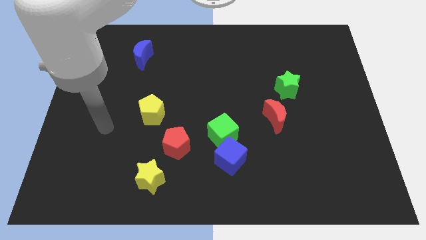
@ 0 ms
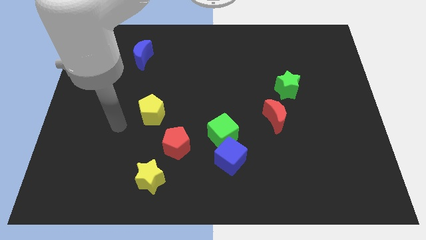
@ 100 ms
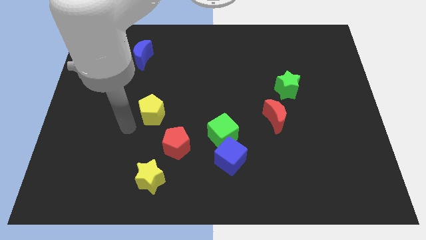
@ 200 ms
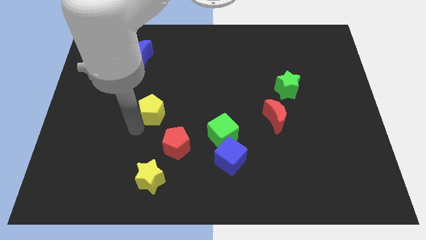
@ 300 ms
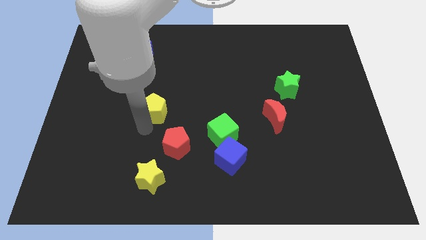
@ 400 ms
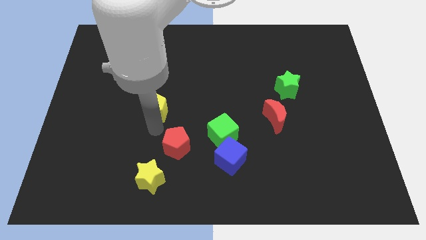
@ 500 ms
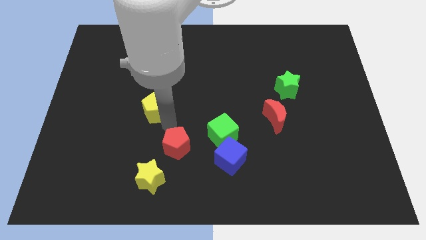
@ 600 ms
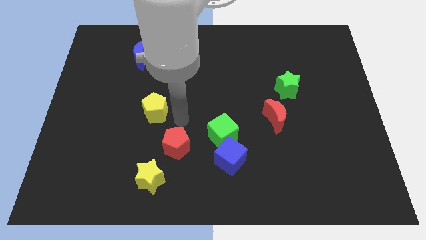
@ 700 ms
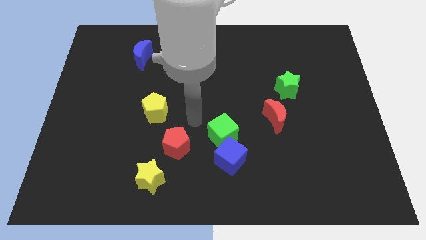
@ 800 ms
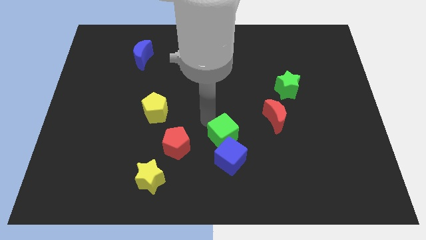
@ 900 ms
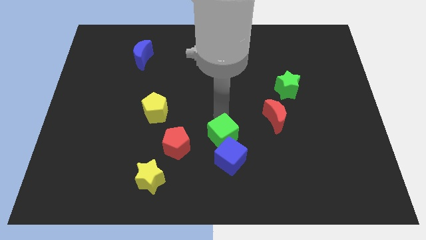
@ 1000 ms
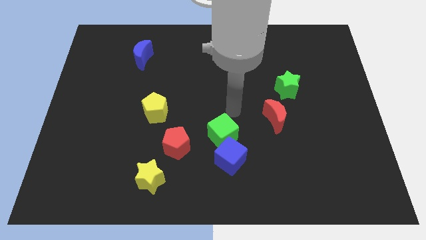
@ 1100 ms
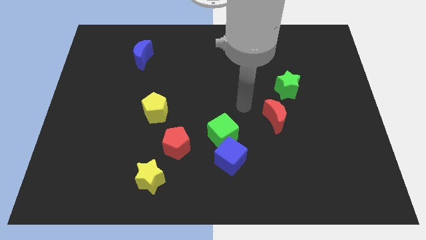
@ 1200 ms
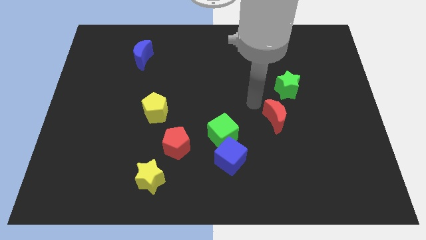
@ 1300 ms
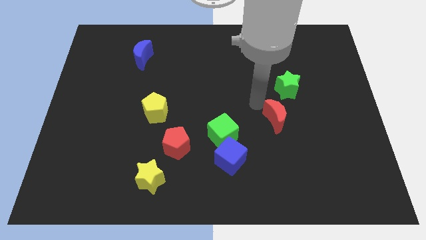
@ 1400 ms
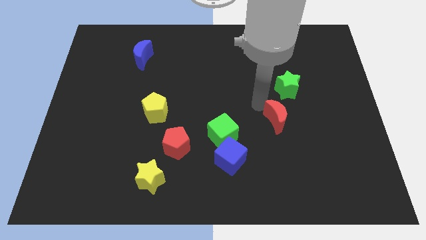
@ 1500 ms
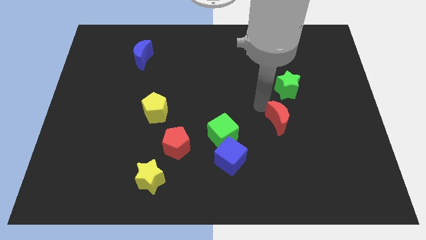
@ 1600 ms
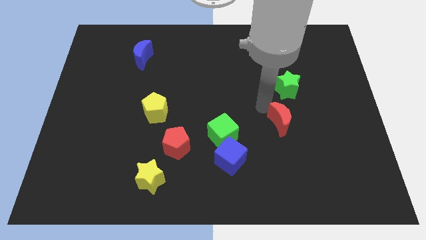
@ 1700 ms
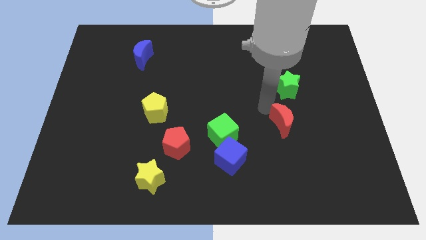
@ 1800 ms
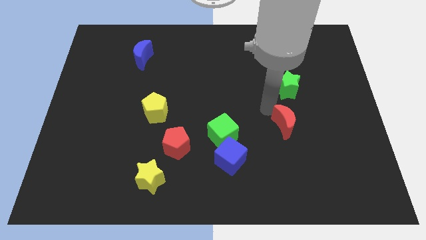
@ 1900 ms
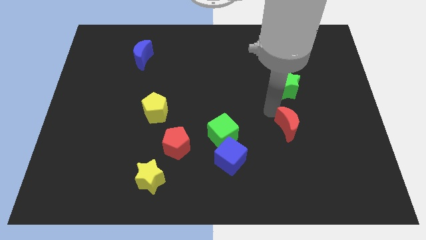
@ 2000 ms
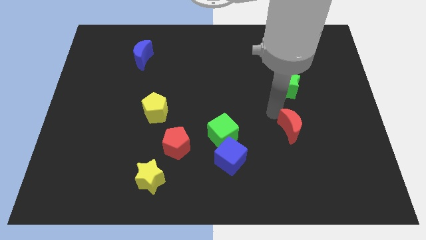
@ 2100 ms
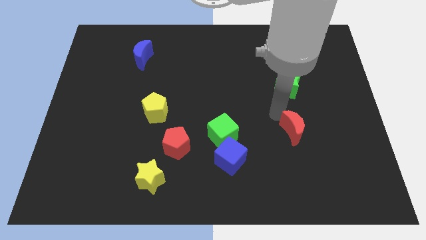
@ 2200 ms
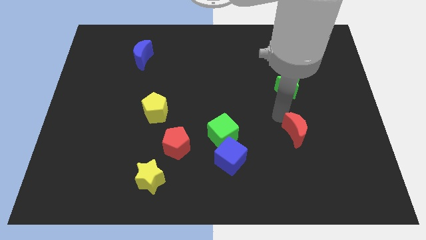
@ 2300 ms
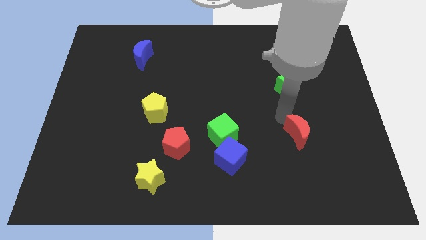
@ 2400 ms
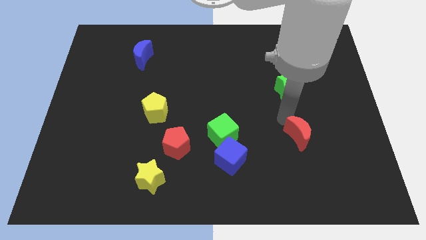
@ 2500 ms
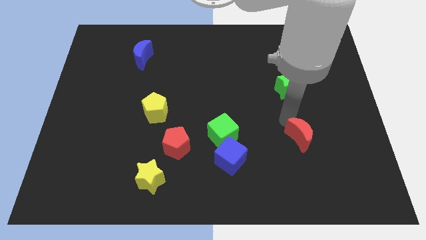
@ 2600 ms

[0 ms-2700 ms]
push the red moon downwards and then to the right slightly

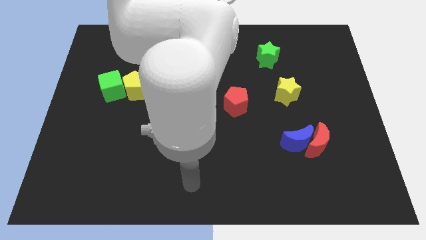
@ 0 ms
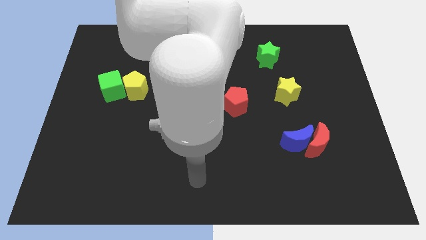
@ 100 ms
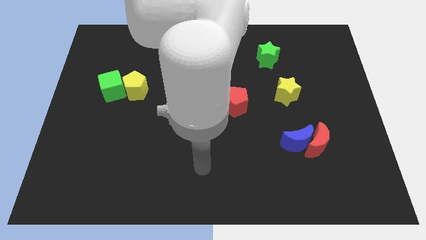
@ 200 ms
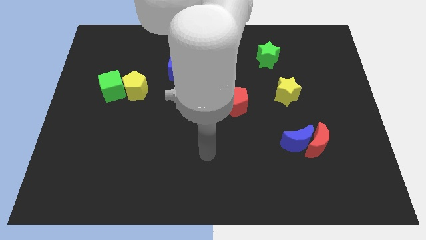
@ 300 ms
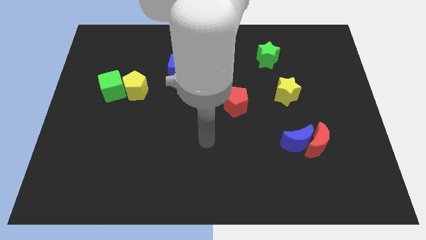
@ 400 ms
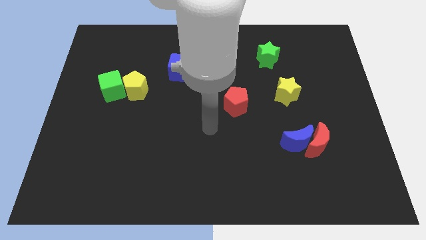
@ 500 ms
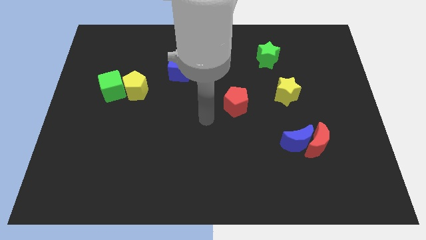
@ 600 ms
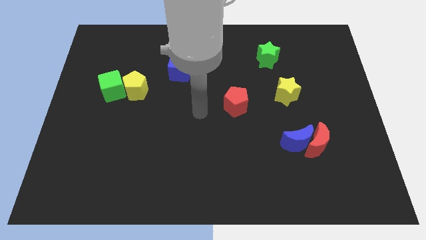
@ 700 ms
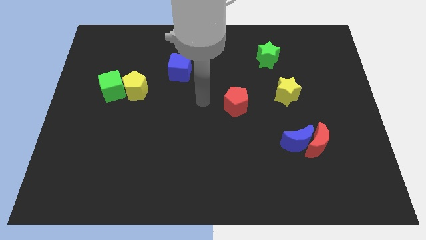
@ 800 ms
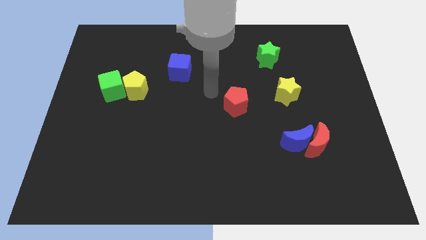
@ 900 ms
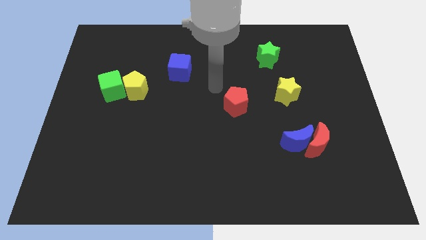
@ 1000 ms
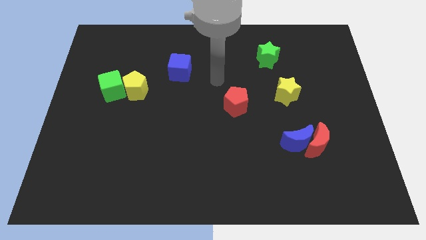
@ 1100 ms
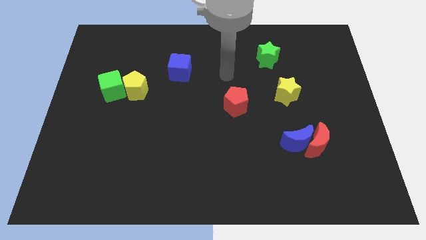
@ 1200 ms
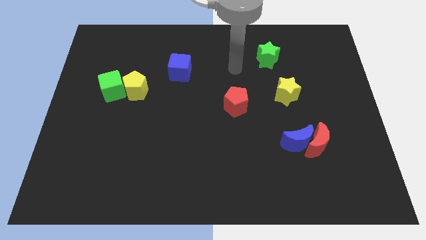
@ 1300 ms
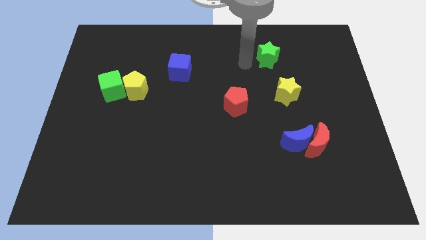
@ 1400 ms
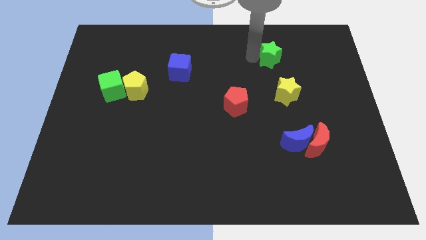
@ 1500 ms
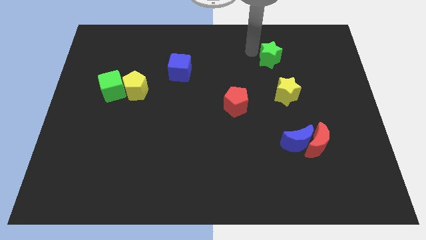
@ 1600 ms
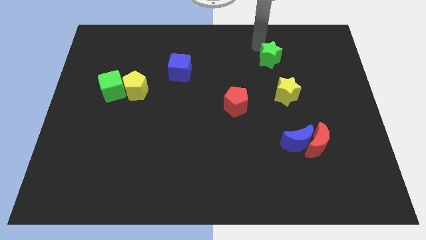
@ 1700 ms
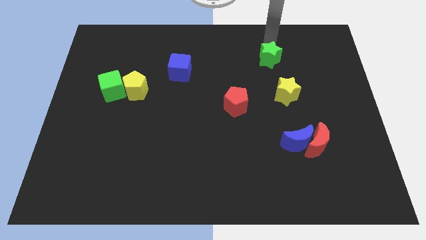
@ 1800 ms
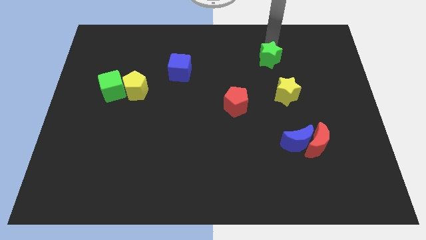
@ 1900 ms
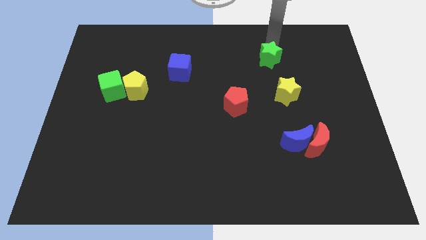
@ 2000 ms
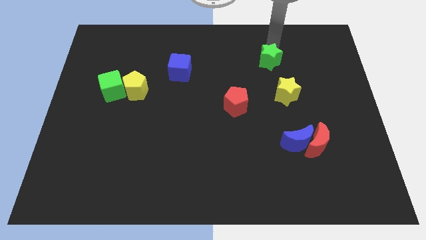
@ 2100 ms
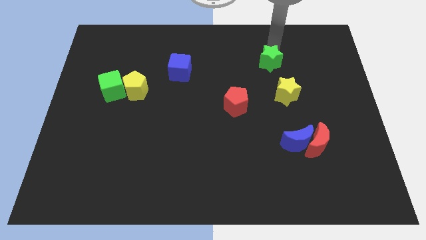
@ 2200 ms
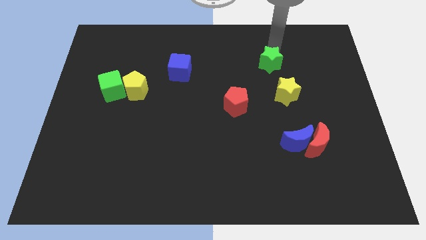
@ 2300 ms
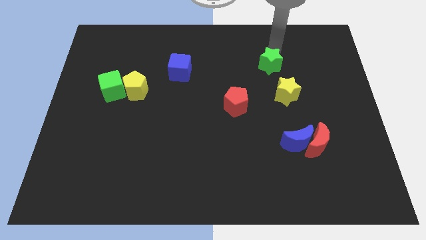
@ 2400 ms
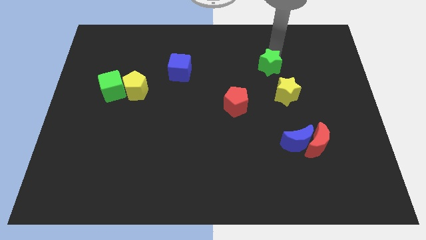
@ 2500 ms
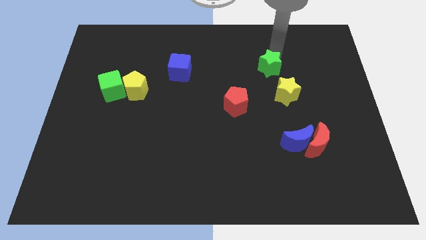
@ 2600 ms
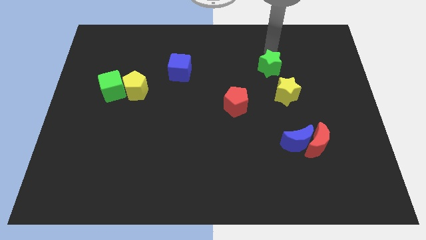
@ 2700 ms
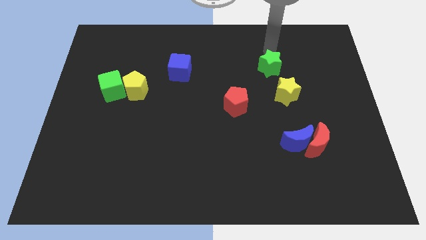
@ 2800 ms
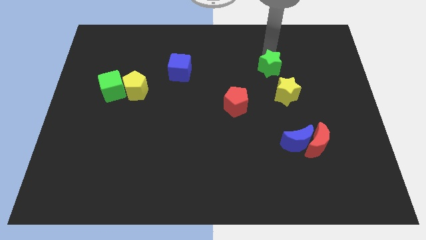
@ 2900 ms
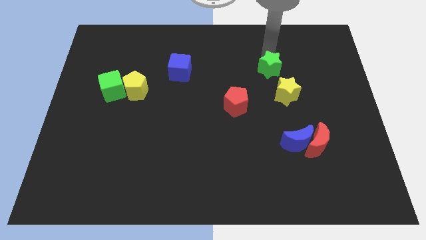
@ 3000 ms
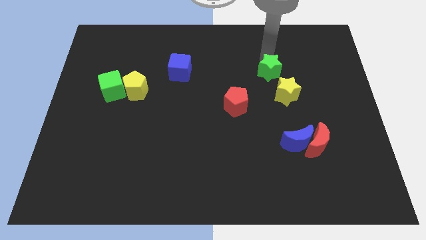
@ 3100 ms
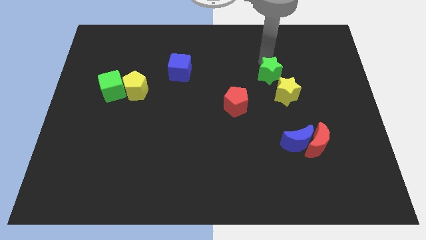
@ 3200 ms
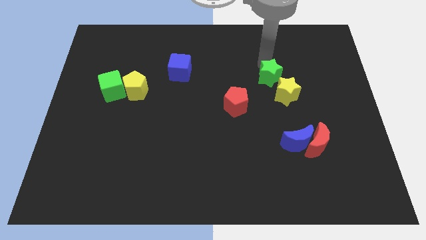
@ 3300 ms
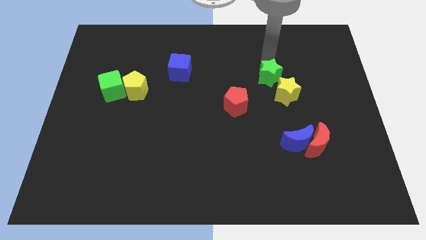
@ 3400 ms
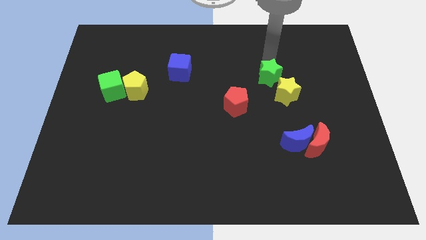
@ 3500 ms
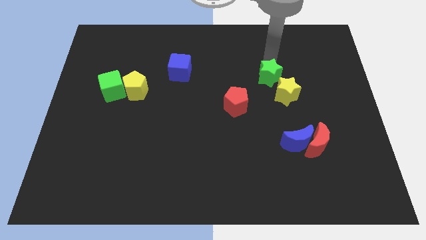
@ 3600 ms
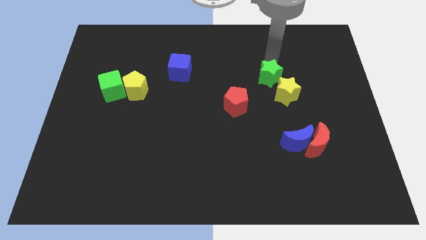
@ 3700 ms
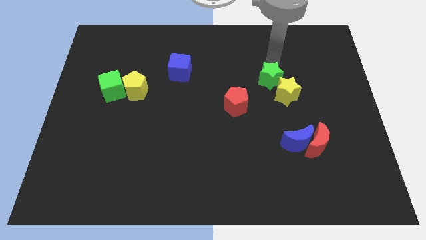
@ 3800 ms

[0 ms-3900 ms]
move the green star a little bit down

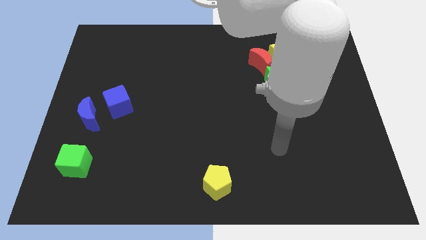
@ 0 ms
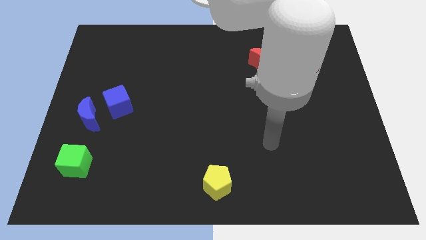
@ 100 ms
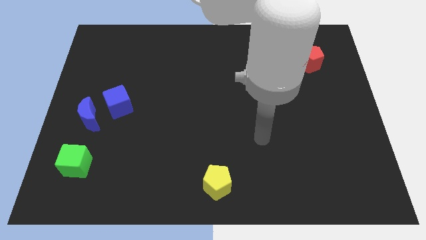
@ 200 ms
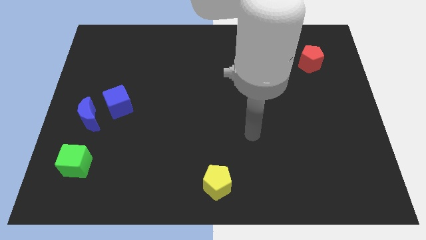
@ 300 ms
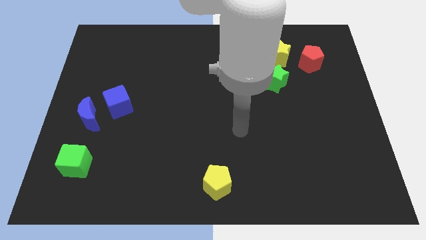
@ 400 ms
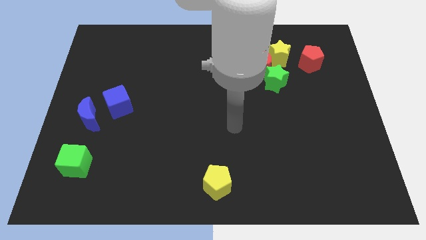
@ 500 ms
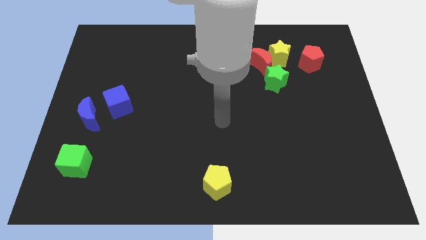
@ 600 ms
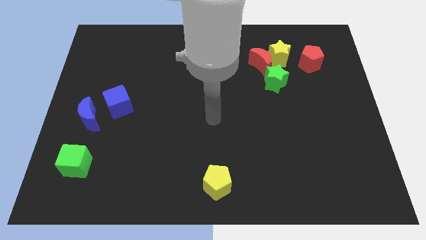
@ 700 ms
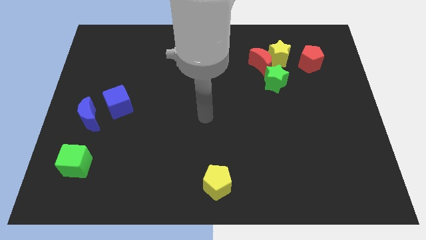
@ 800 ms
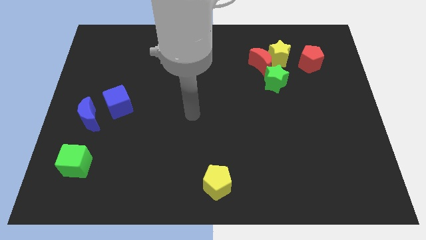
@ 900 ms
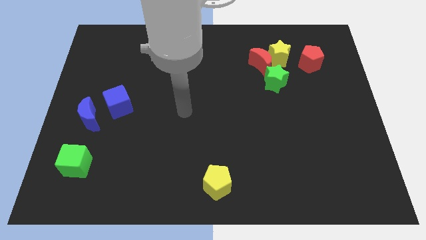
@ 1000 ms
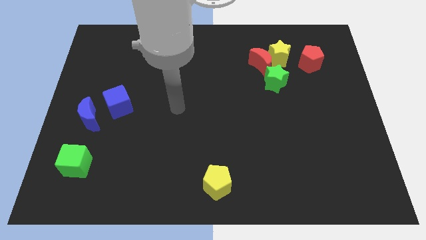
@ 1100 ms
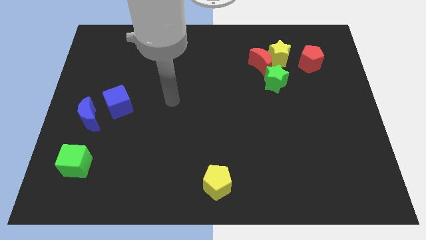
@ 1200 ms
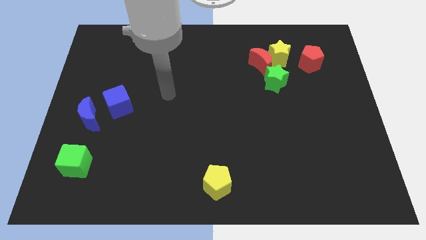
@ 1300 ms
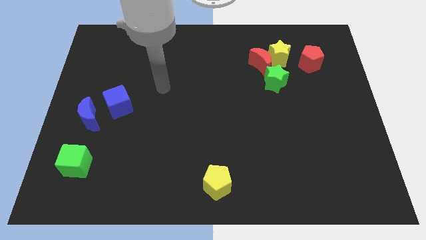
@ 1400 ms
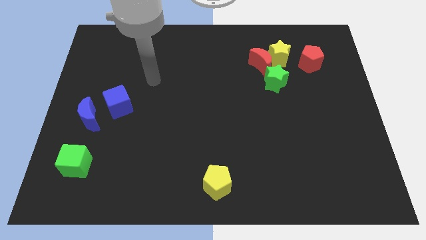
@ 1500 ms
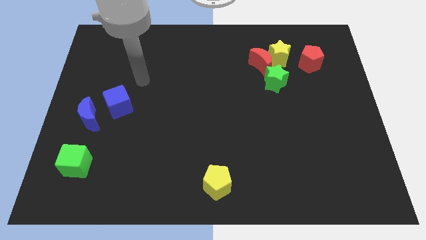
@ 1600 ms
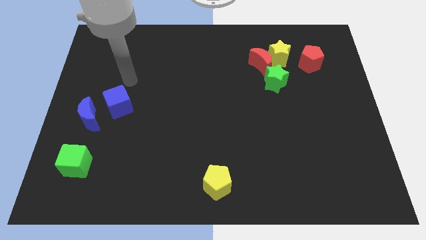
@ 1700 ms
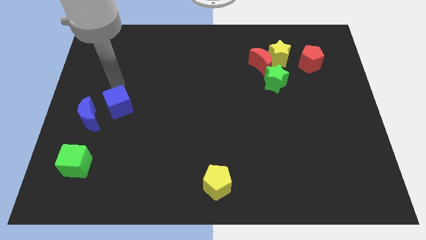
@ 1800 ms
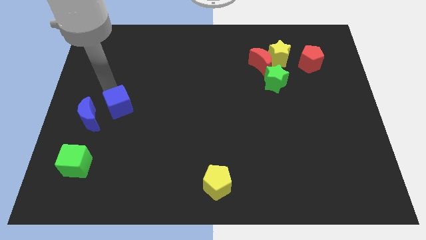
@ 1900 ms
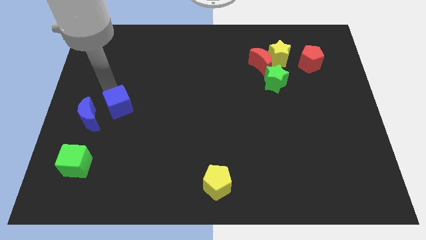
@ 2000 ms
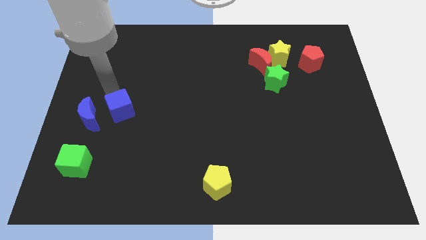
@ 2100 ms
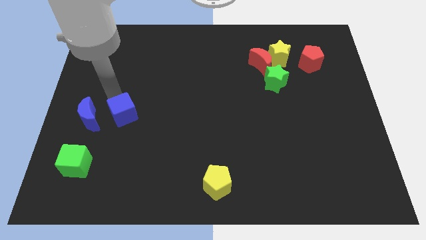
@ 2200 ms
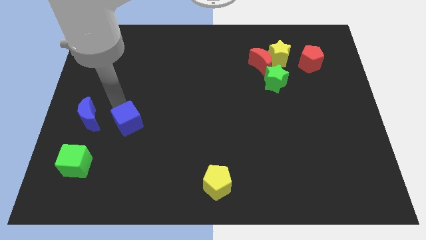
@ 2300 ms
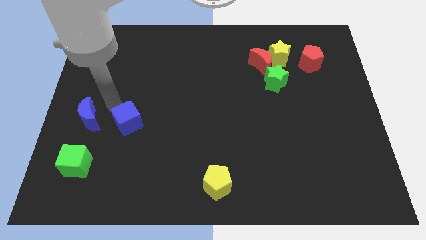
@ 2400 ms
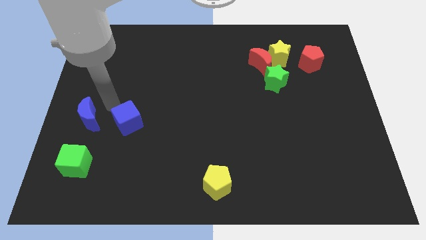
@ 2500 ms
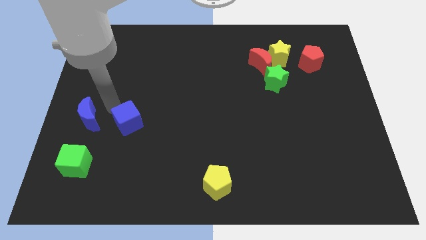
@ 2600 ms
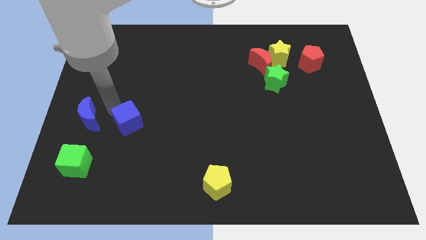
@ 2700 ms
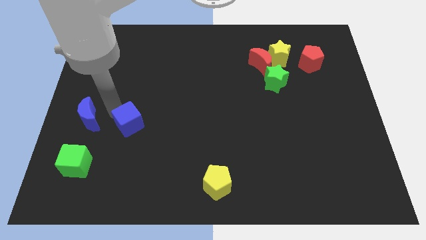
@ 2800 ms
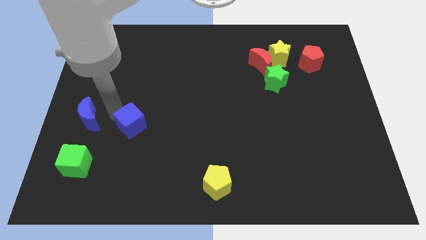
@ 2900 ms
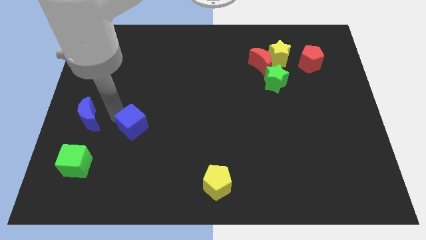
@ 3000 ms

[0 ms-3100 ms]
slide the blue cube a little downwards and to the right diagonally
